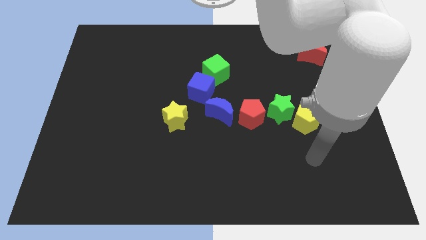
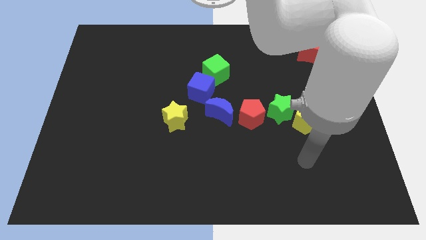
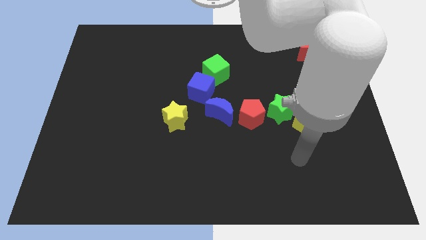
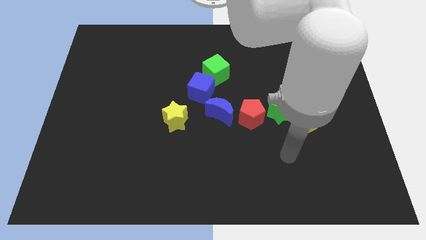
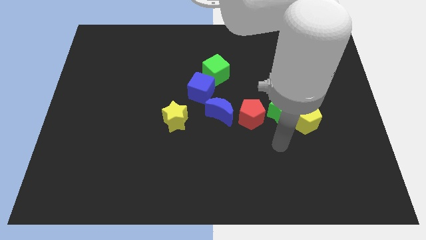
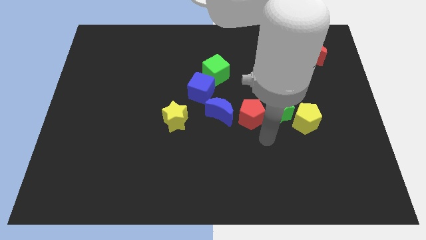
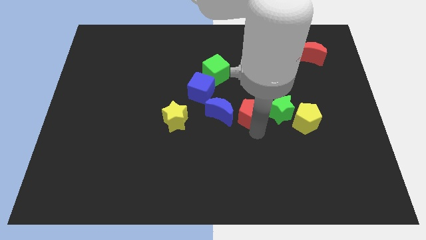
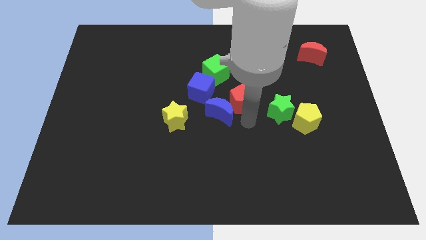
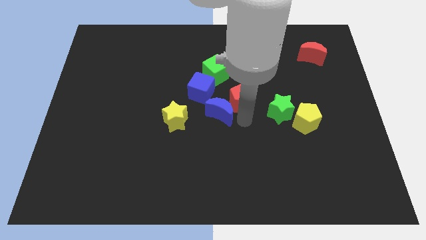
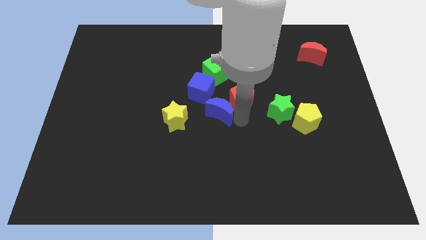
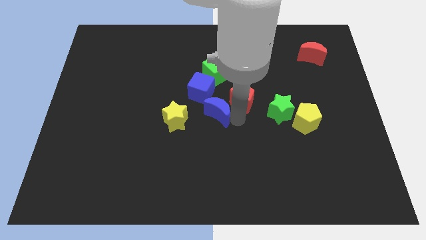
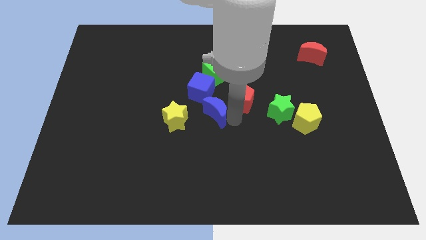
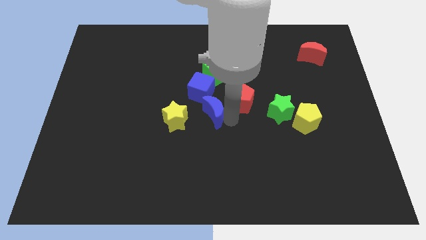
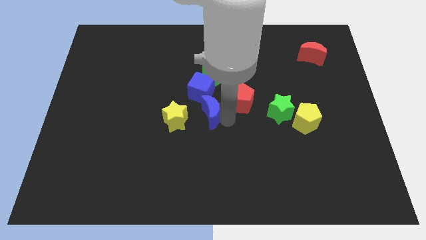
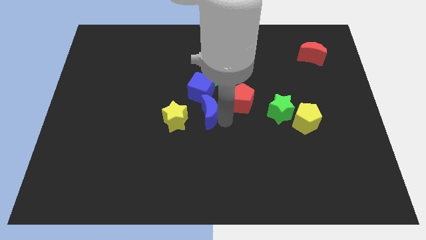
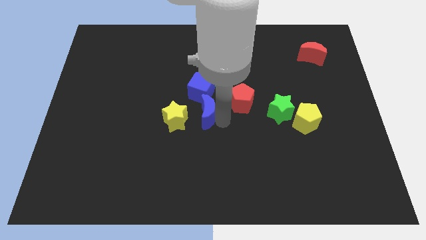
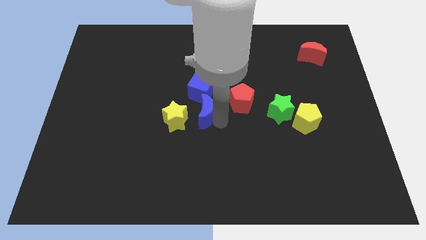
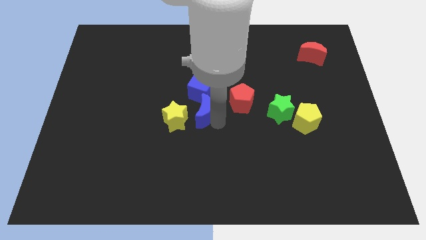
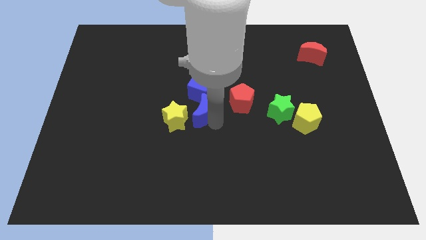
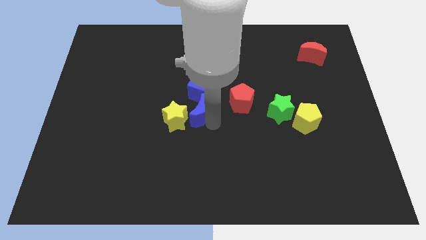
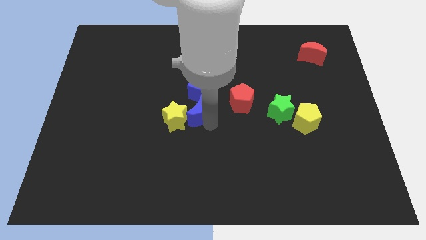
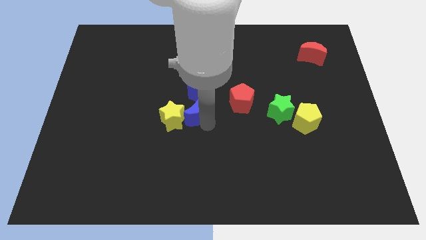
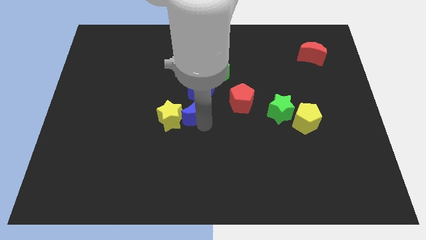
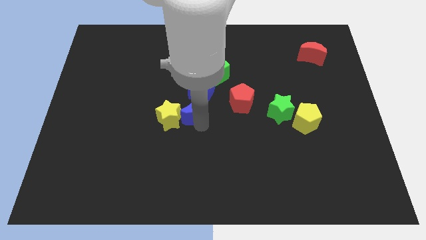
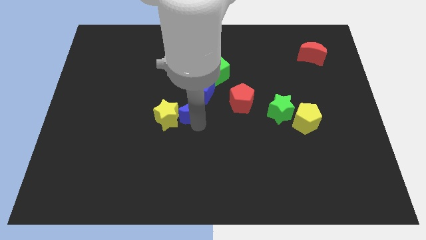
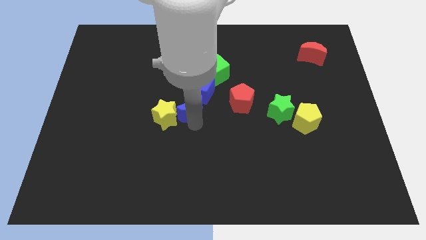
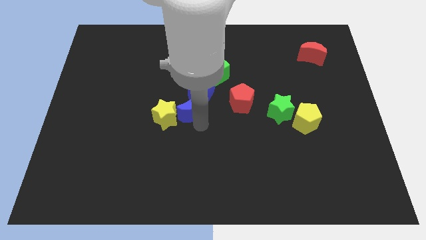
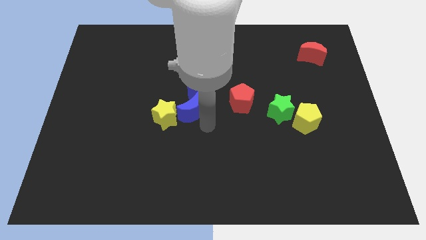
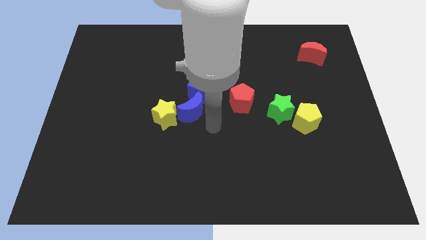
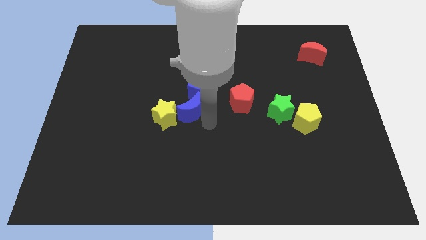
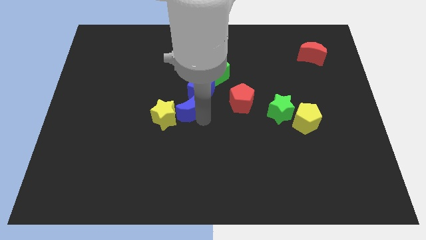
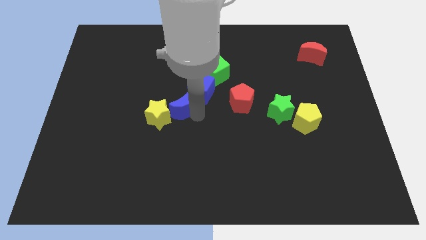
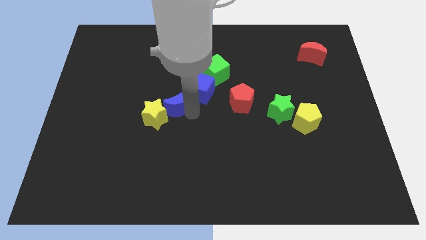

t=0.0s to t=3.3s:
move the blue moon up and left diagonally slightly

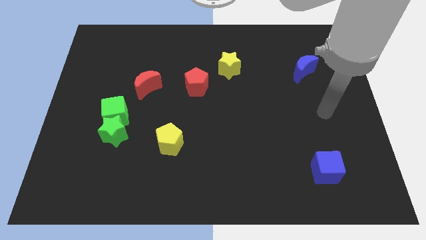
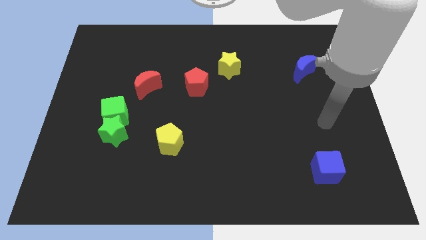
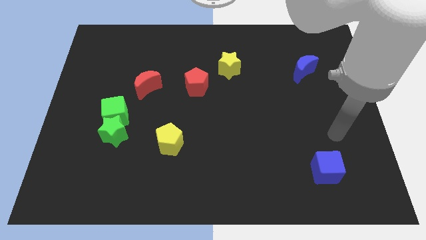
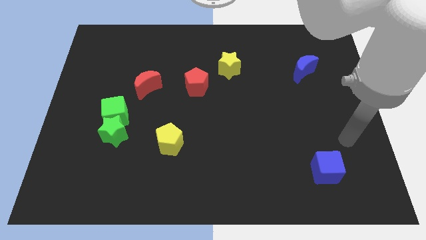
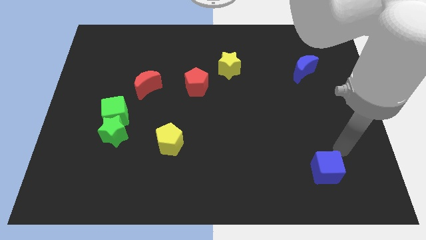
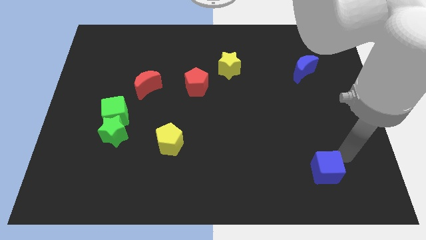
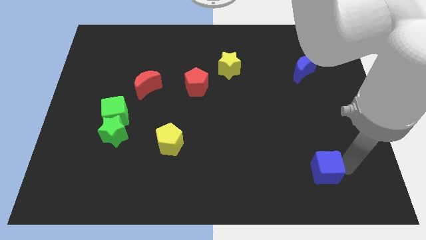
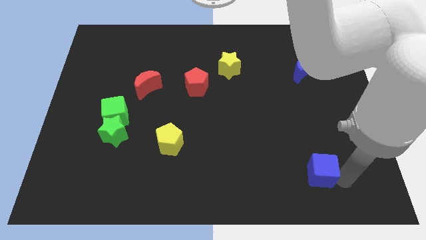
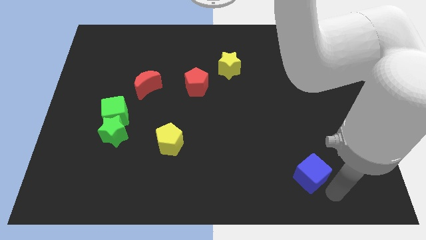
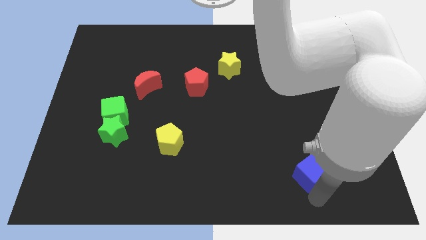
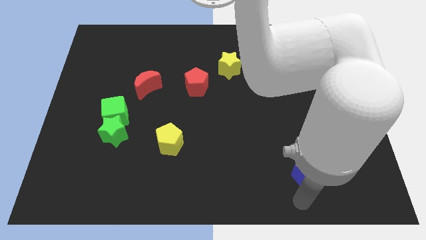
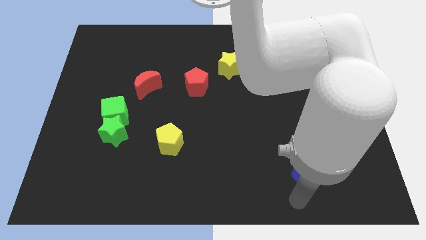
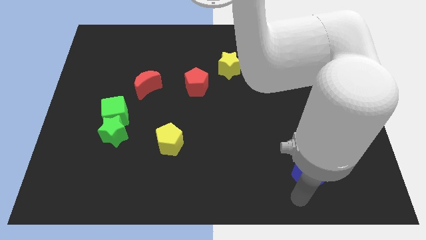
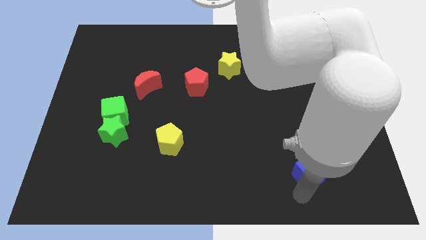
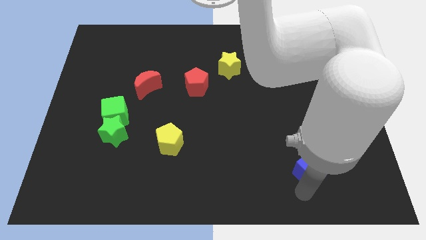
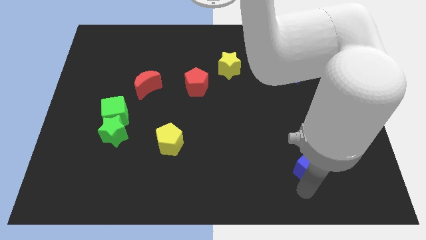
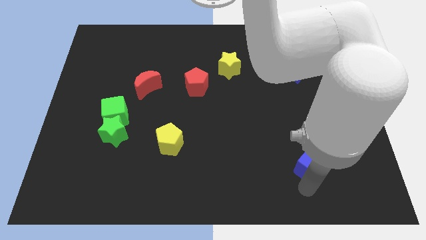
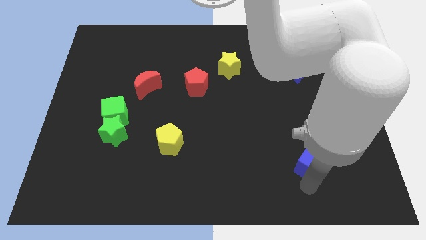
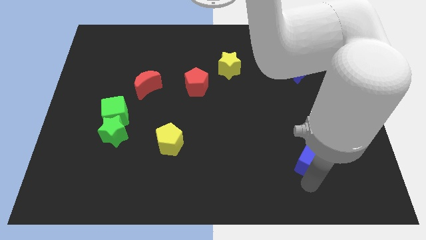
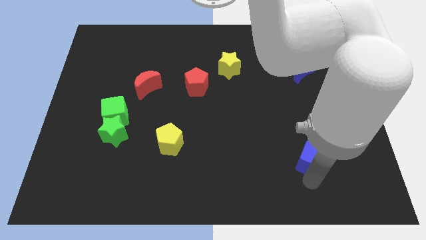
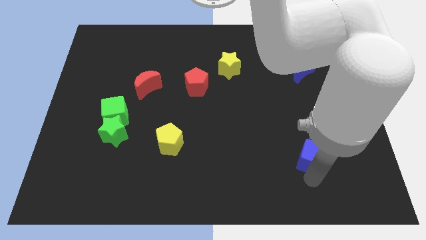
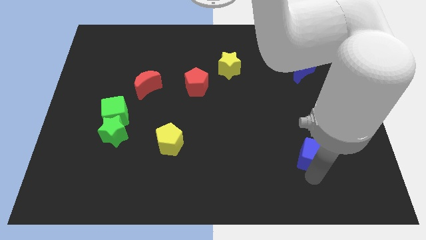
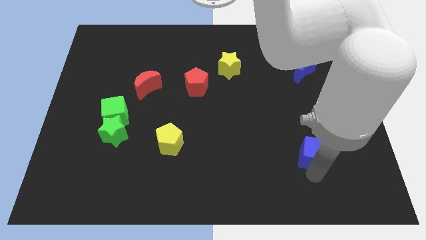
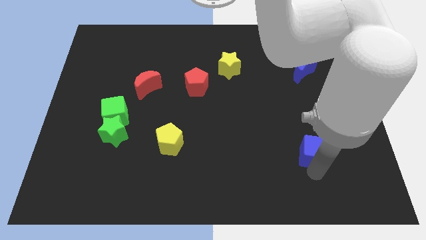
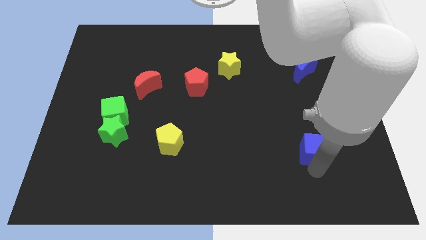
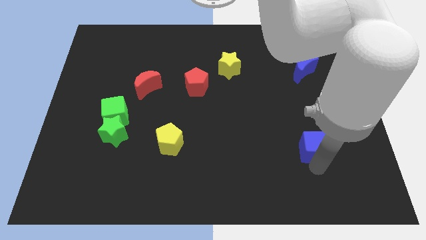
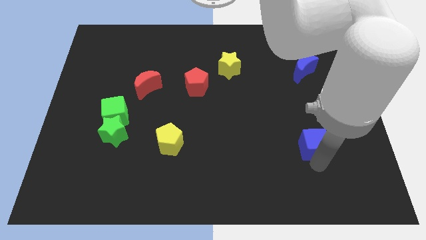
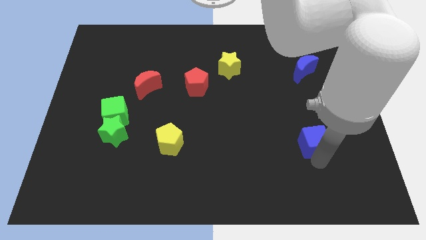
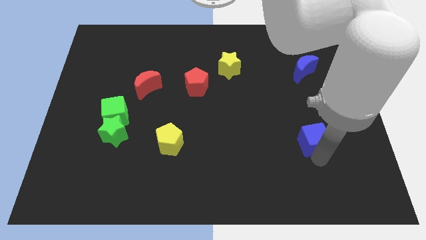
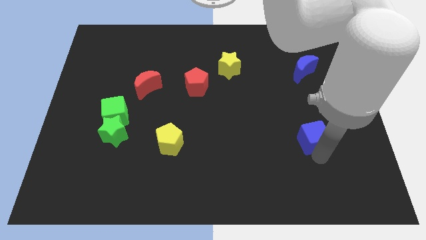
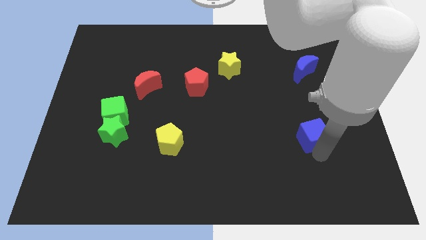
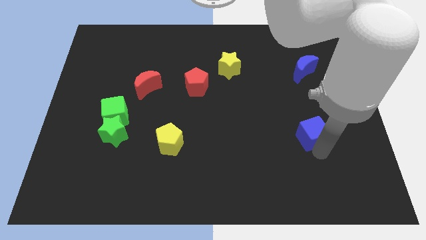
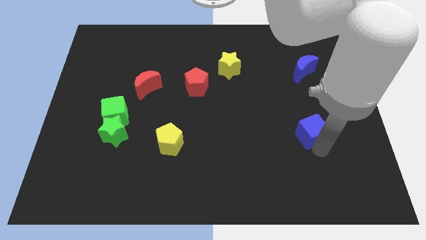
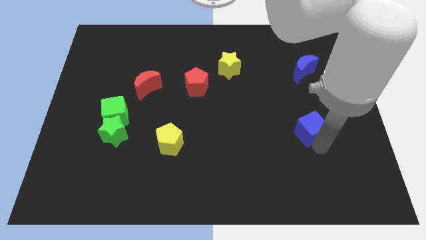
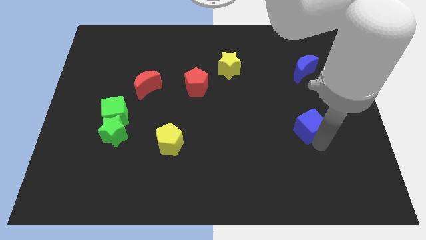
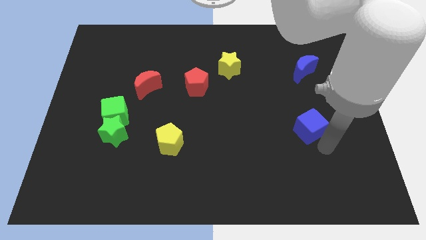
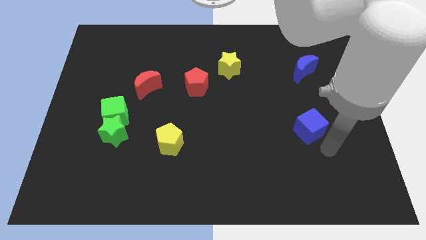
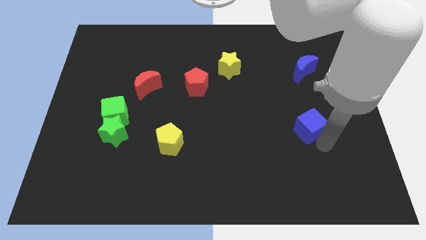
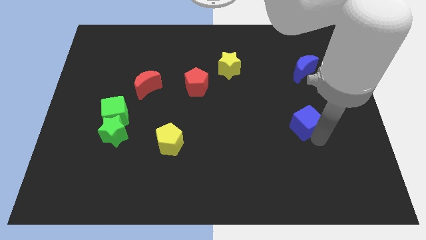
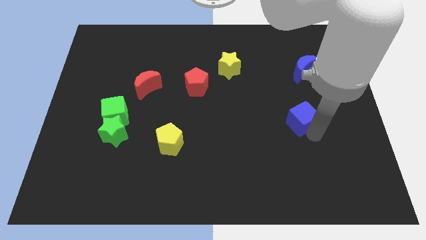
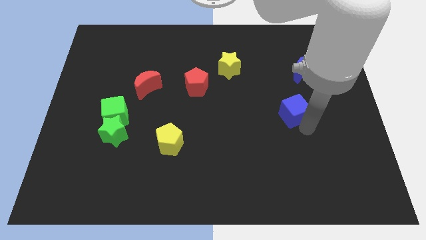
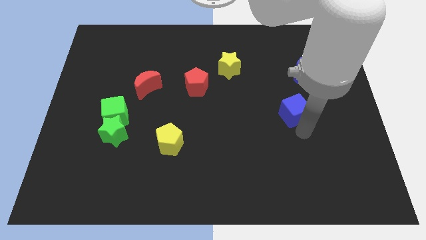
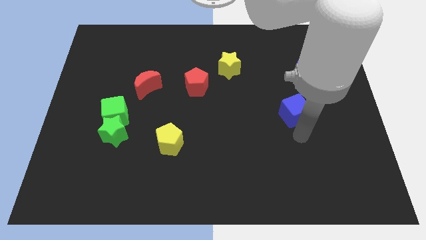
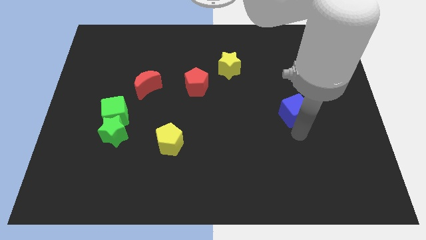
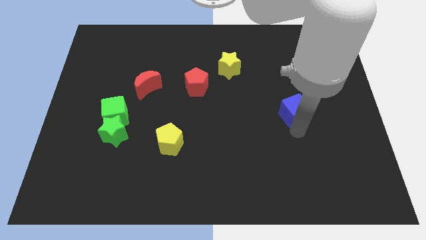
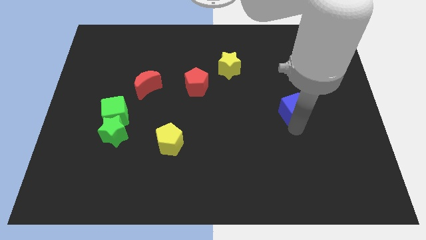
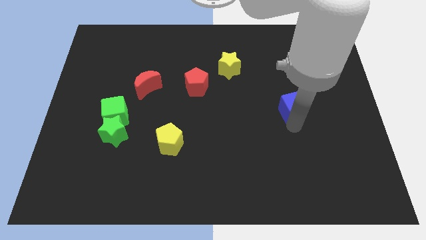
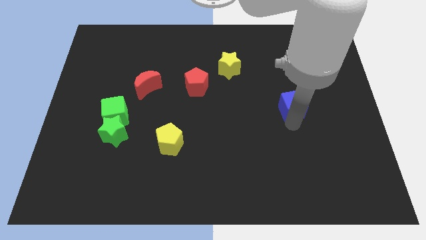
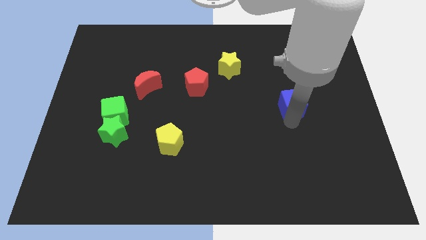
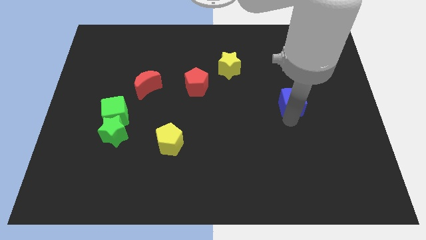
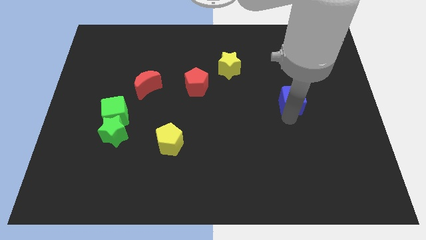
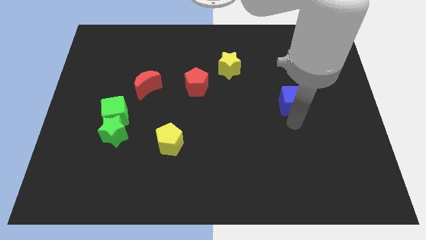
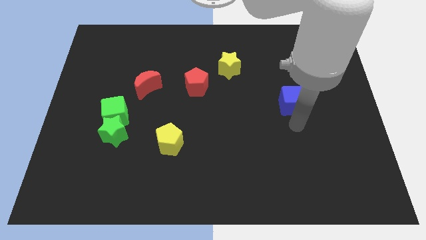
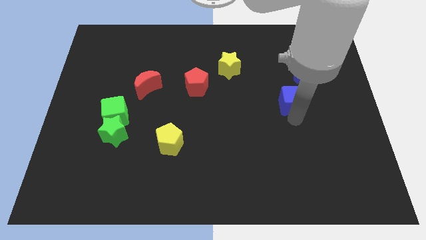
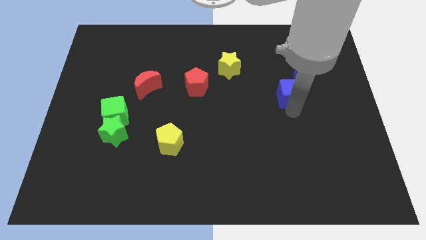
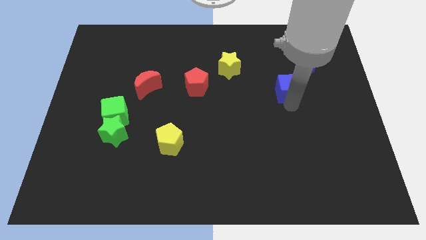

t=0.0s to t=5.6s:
move the blue cube up
